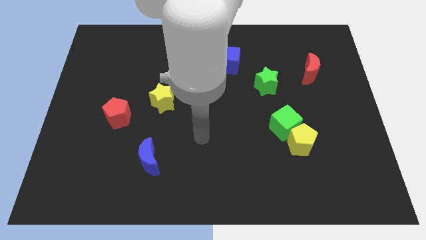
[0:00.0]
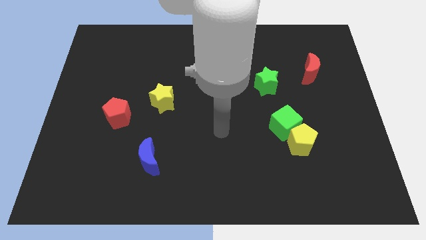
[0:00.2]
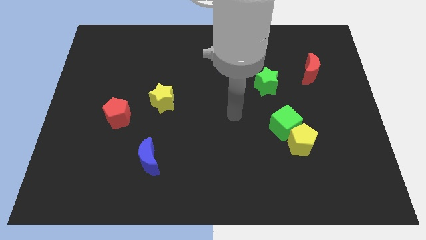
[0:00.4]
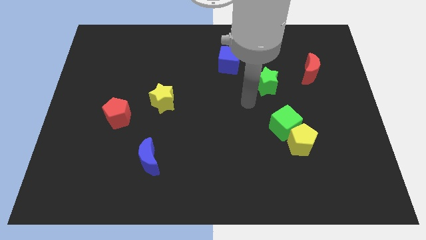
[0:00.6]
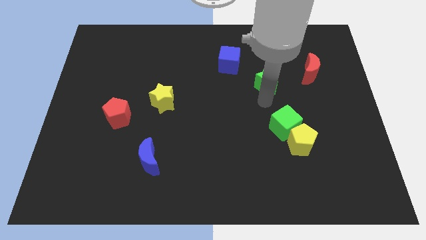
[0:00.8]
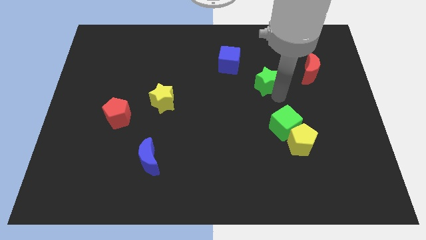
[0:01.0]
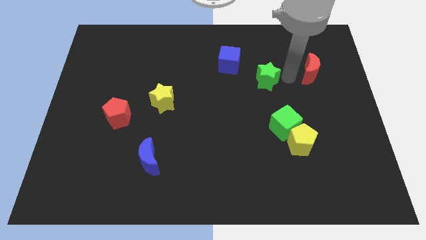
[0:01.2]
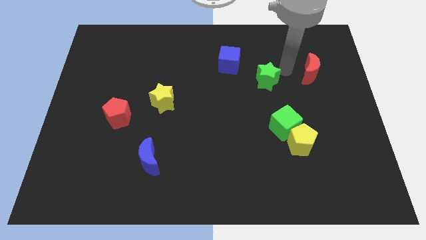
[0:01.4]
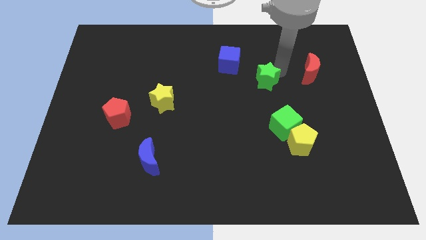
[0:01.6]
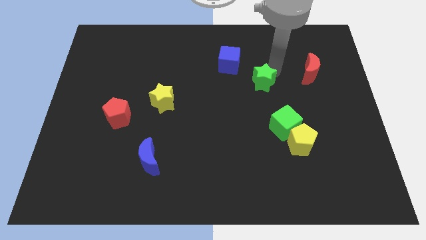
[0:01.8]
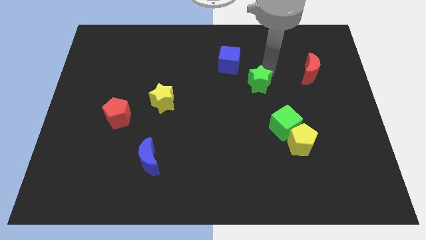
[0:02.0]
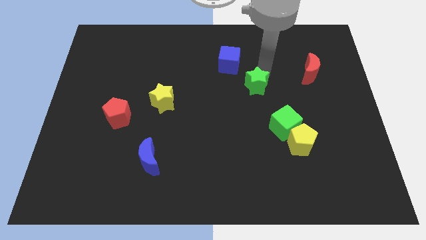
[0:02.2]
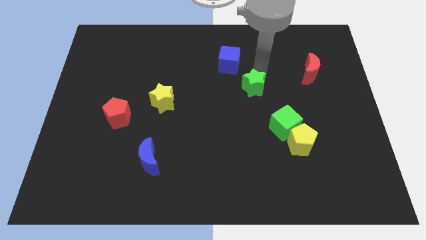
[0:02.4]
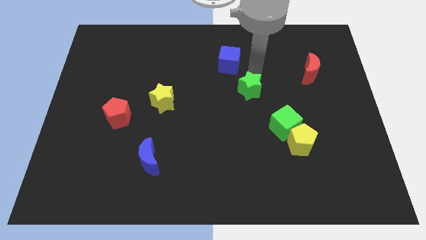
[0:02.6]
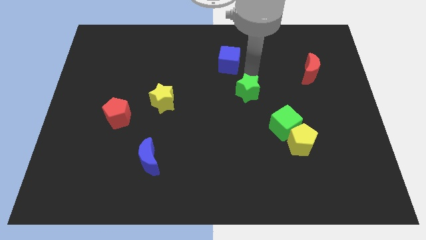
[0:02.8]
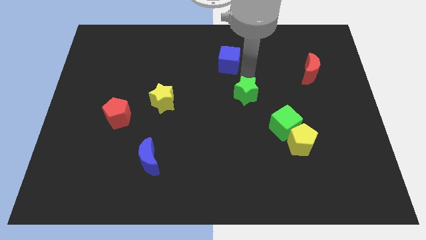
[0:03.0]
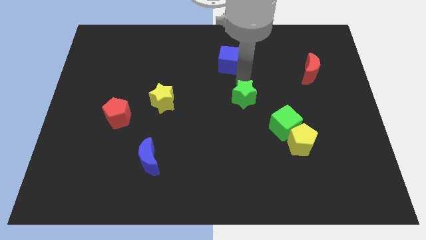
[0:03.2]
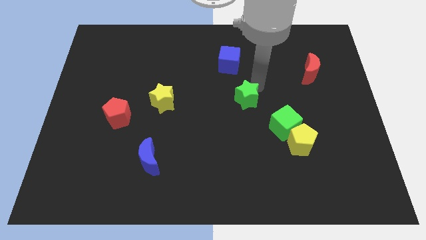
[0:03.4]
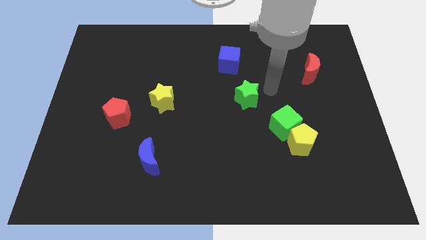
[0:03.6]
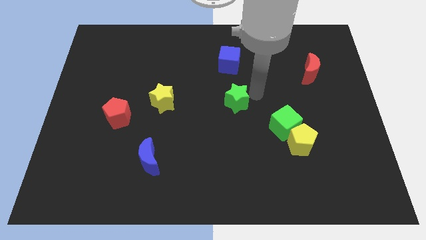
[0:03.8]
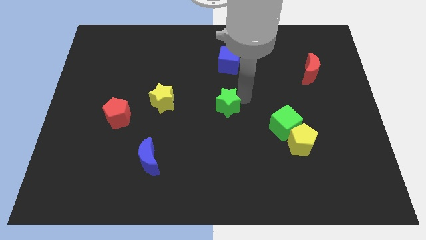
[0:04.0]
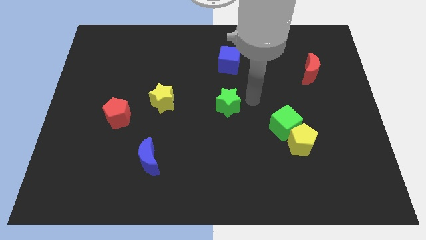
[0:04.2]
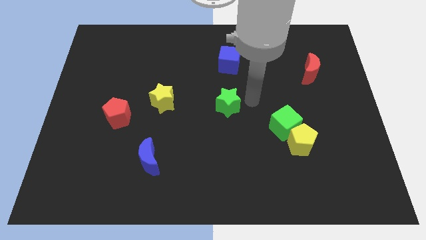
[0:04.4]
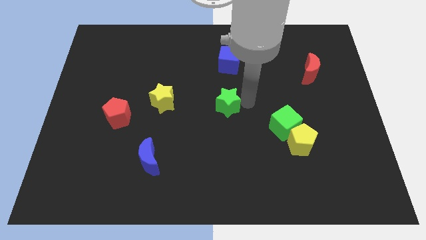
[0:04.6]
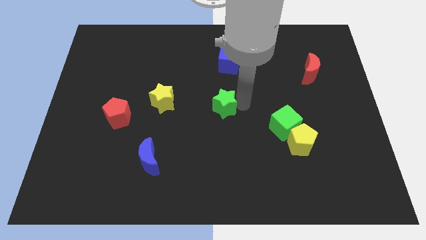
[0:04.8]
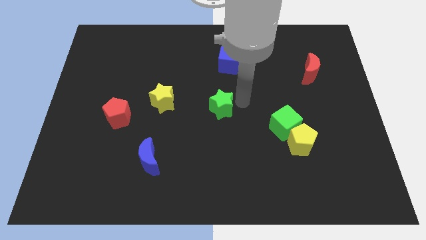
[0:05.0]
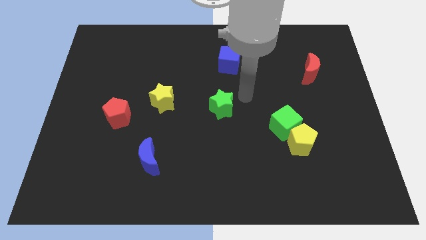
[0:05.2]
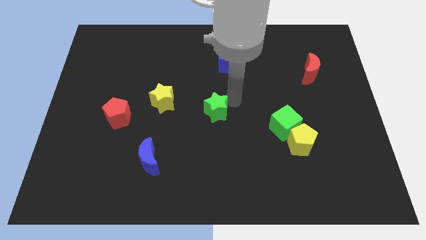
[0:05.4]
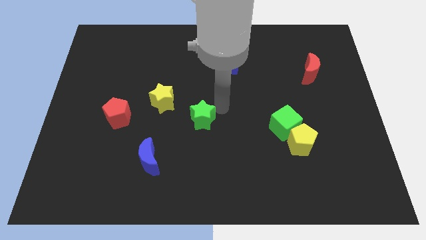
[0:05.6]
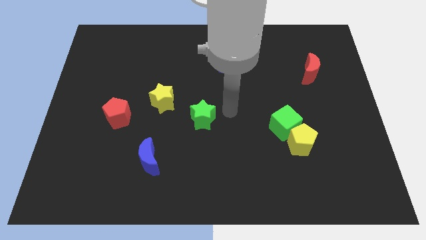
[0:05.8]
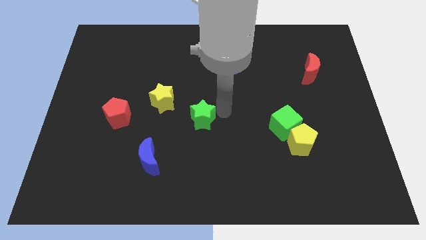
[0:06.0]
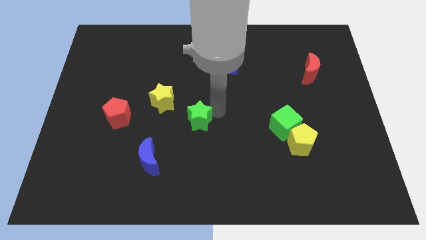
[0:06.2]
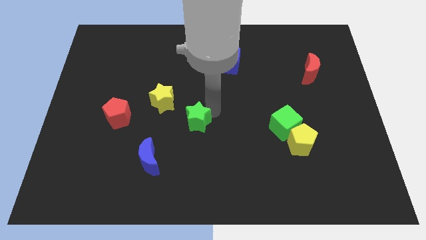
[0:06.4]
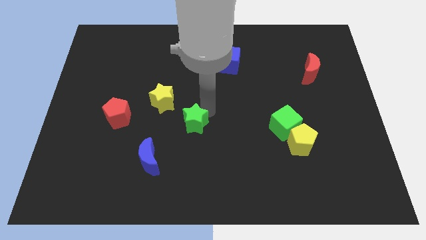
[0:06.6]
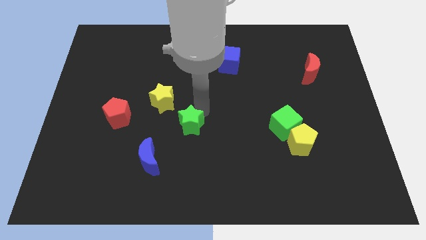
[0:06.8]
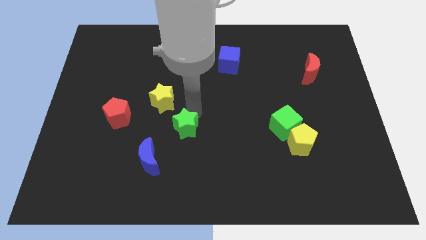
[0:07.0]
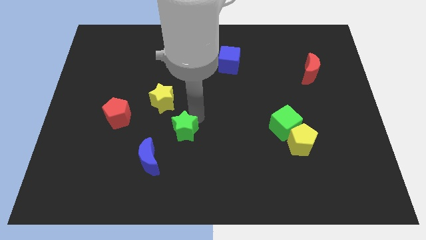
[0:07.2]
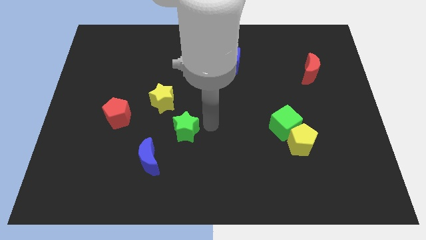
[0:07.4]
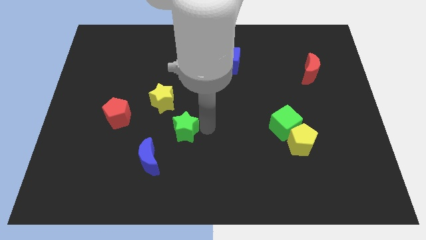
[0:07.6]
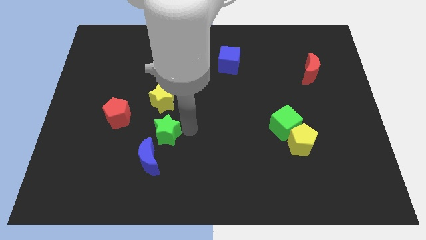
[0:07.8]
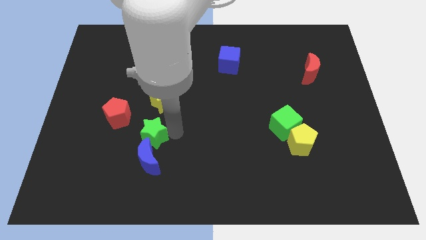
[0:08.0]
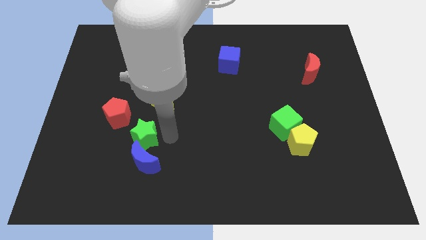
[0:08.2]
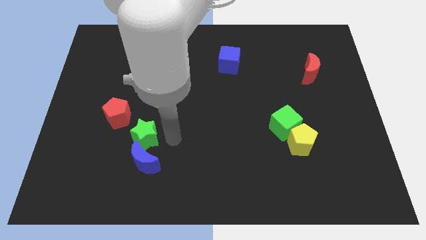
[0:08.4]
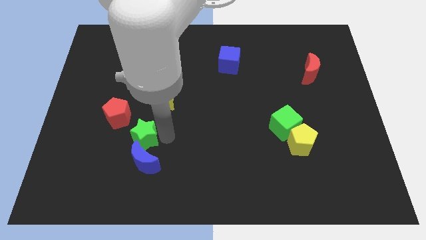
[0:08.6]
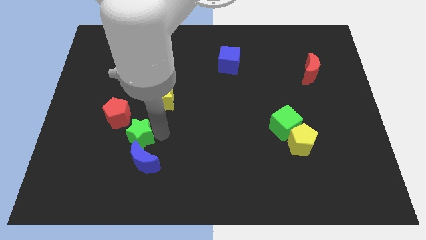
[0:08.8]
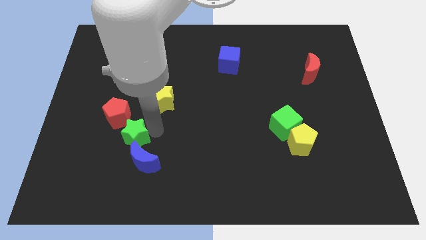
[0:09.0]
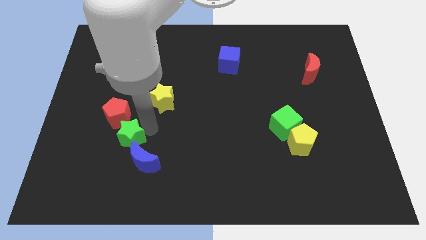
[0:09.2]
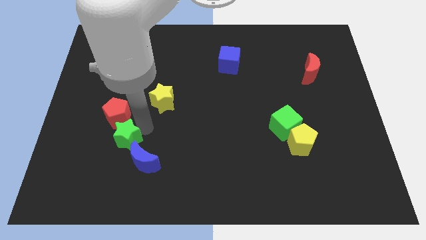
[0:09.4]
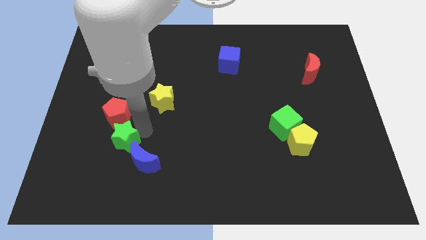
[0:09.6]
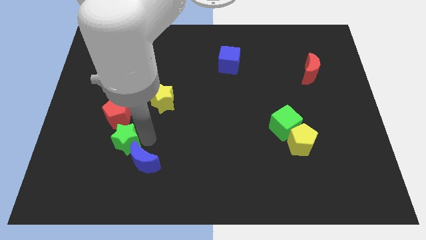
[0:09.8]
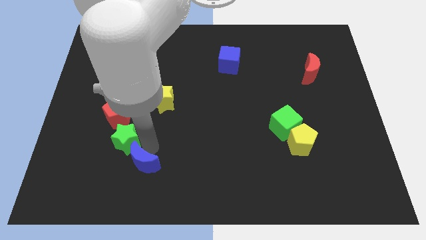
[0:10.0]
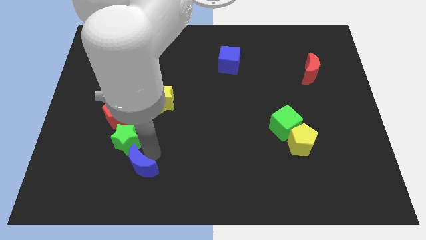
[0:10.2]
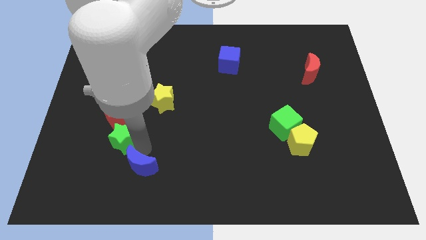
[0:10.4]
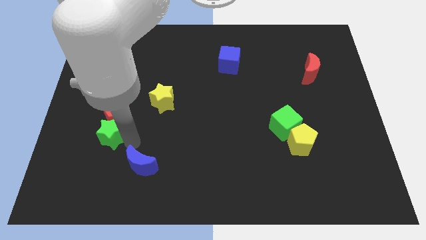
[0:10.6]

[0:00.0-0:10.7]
move the green star to the bottom left of the red pentagon

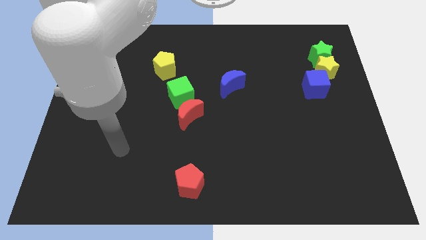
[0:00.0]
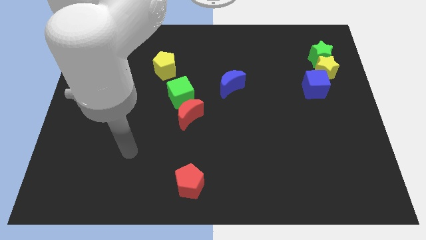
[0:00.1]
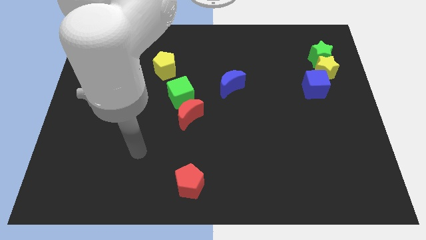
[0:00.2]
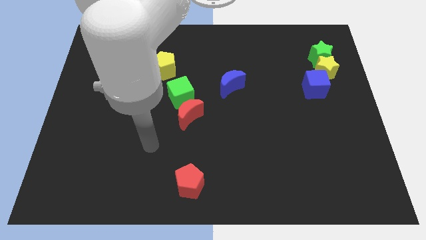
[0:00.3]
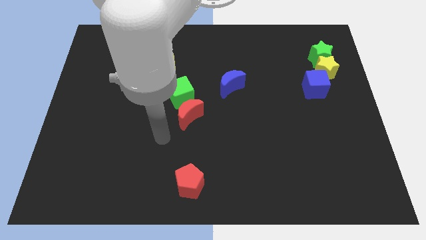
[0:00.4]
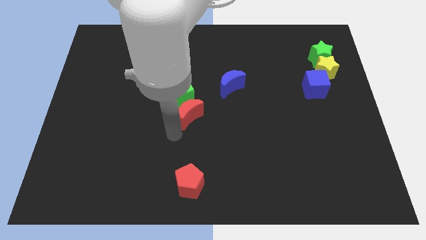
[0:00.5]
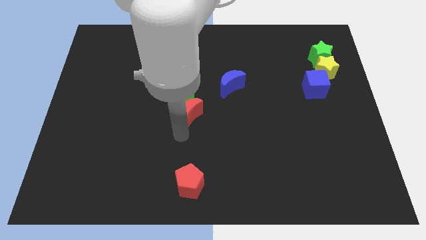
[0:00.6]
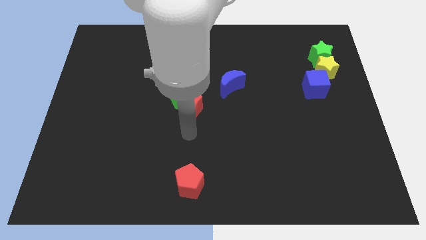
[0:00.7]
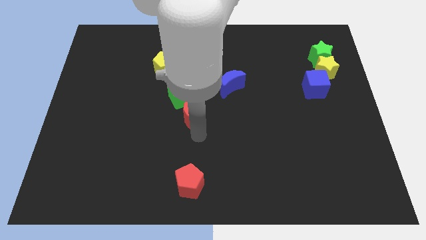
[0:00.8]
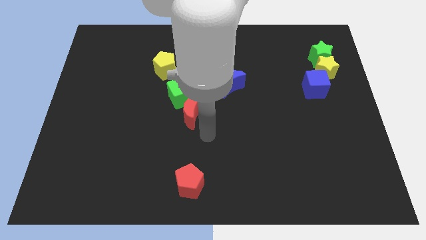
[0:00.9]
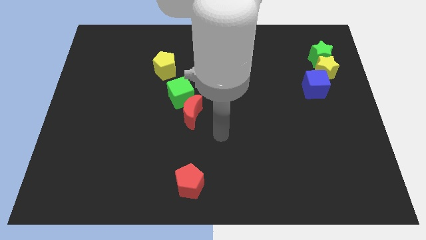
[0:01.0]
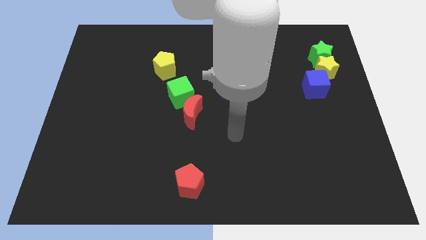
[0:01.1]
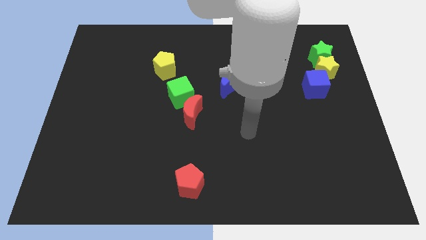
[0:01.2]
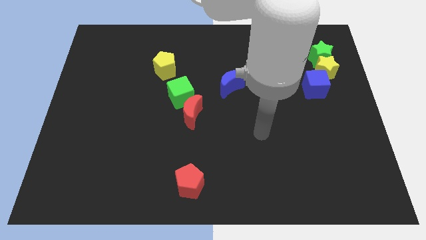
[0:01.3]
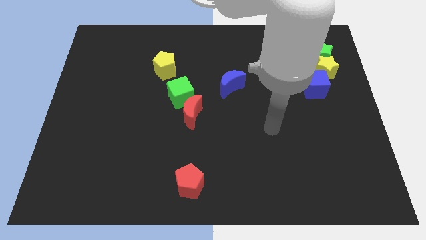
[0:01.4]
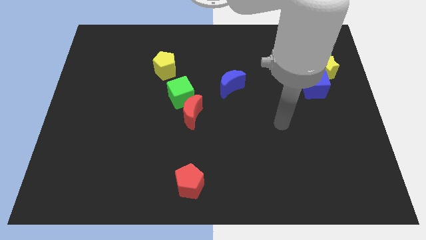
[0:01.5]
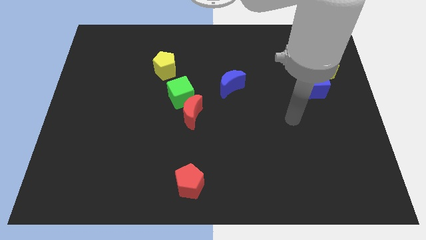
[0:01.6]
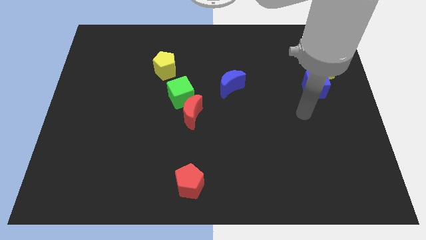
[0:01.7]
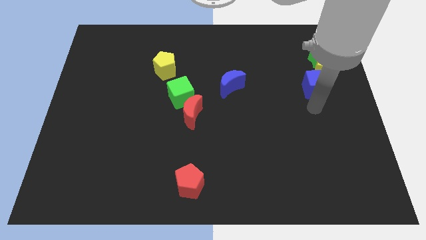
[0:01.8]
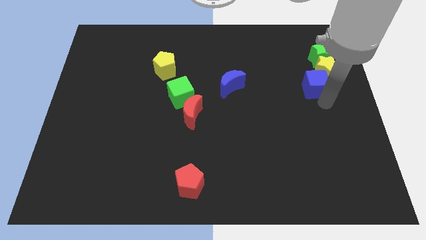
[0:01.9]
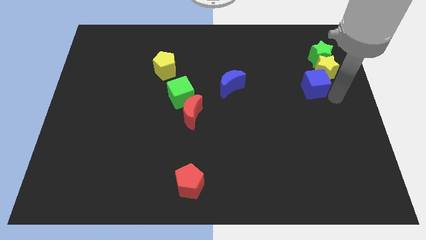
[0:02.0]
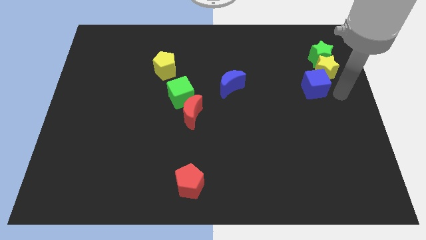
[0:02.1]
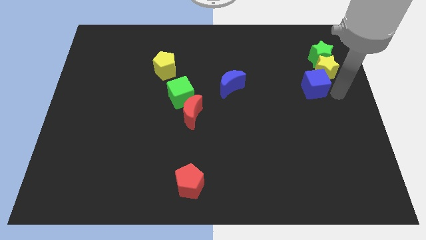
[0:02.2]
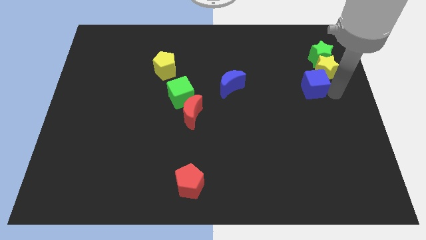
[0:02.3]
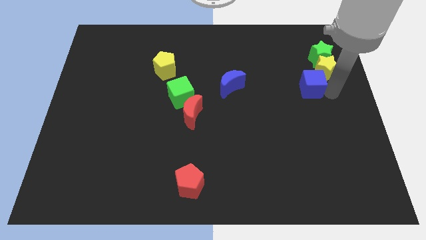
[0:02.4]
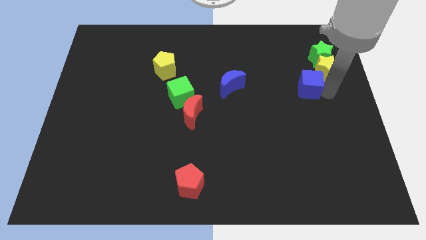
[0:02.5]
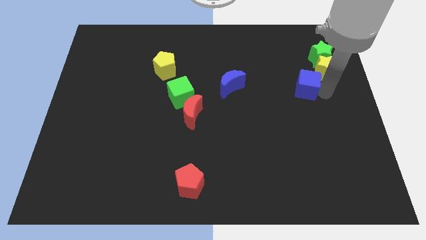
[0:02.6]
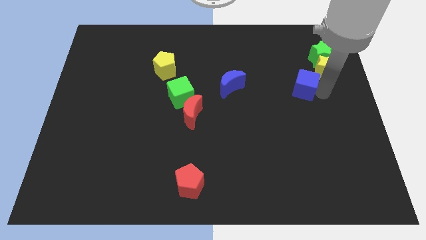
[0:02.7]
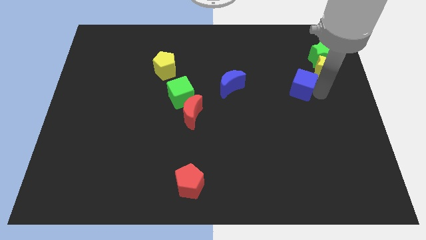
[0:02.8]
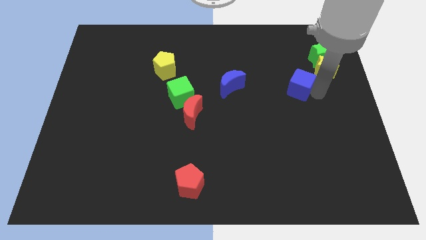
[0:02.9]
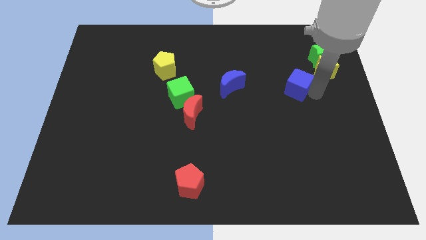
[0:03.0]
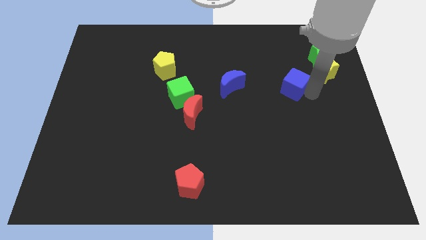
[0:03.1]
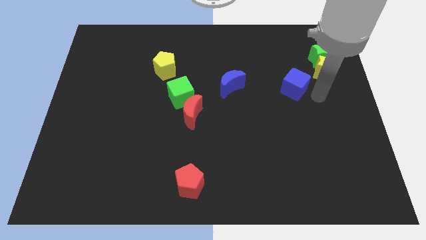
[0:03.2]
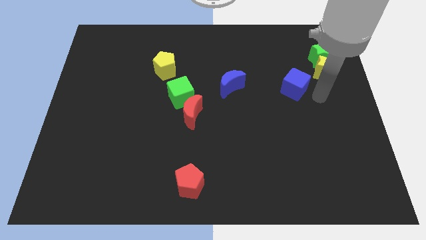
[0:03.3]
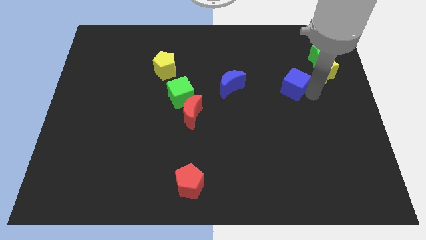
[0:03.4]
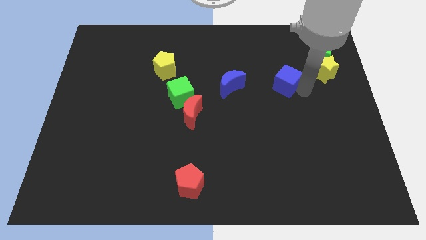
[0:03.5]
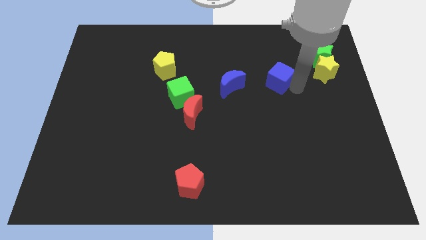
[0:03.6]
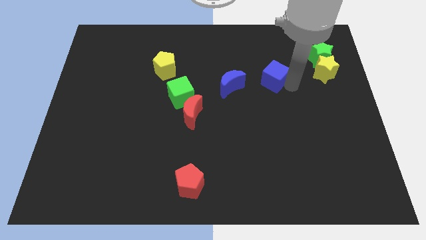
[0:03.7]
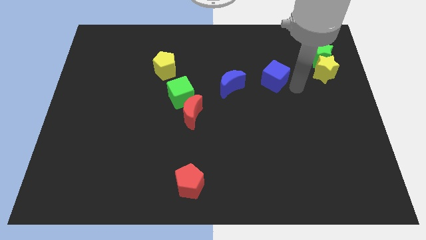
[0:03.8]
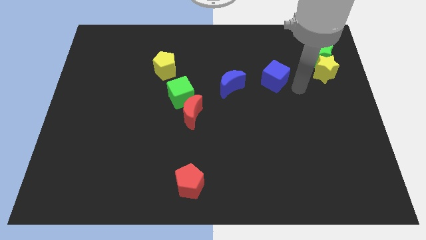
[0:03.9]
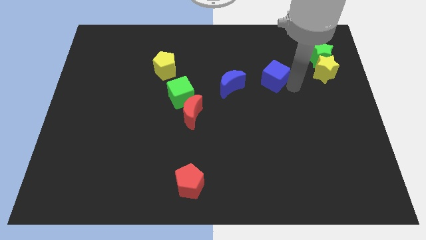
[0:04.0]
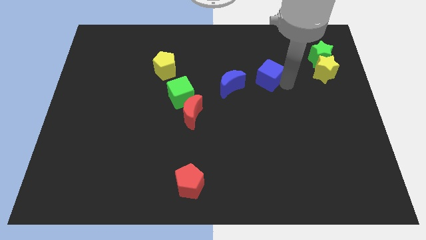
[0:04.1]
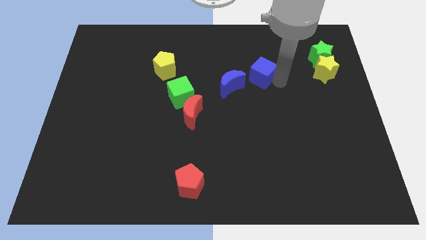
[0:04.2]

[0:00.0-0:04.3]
put the blue cube diagonally up and to the right of the blue moon
